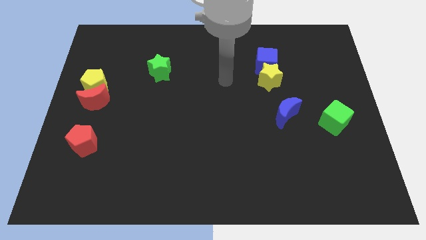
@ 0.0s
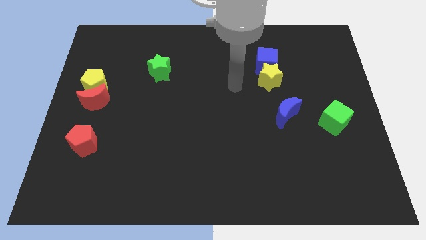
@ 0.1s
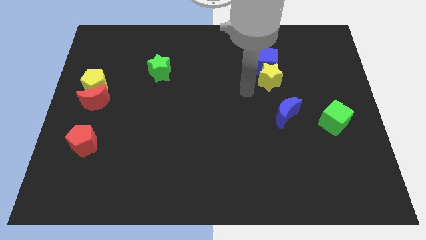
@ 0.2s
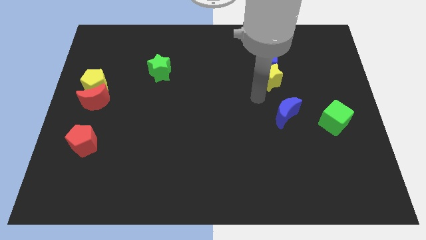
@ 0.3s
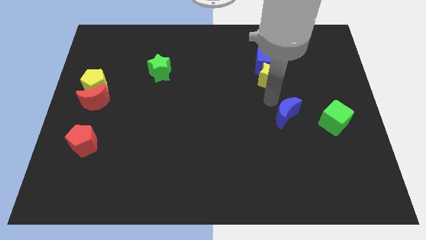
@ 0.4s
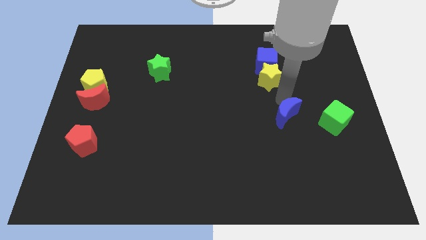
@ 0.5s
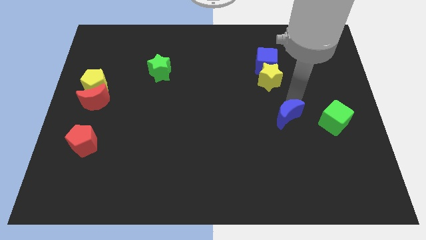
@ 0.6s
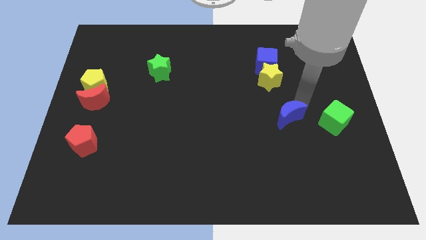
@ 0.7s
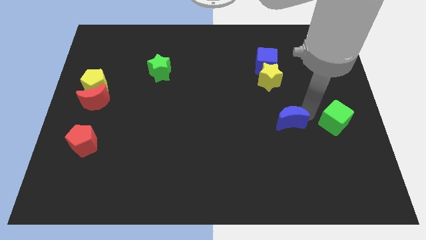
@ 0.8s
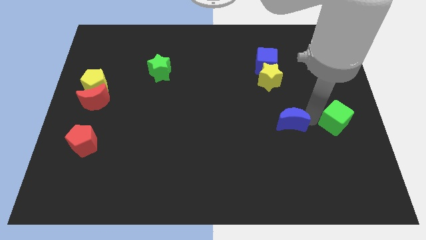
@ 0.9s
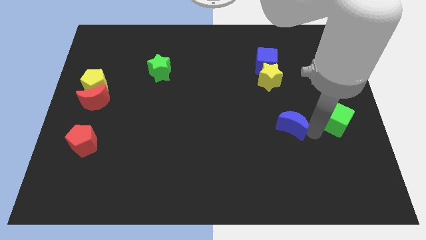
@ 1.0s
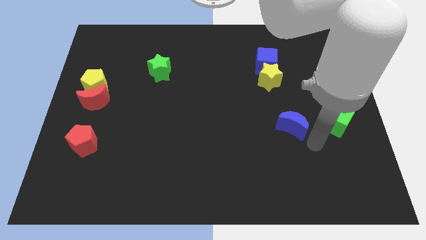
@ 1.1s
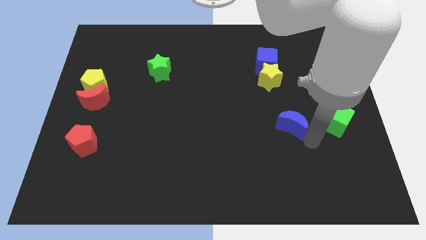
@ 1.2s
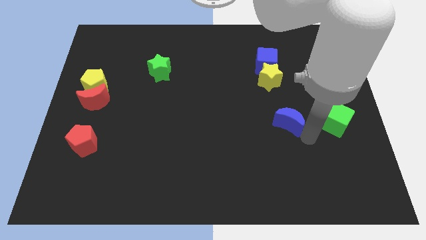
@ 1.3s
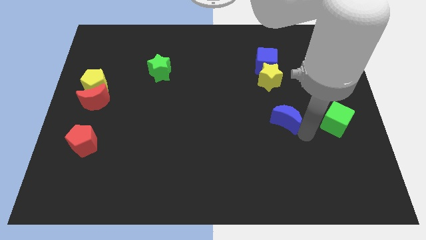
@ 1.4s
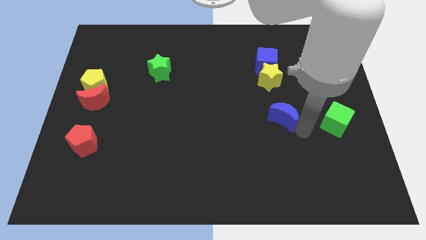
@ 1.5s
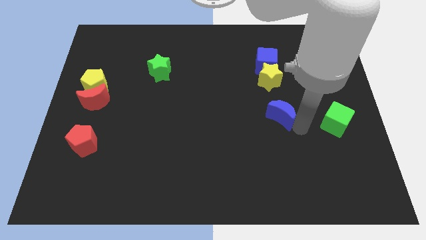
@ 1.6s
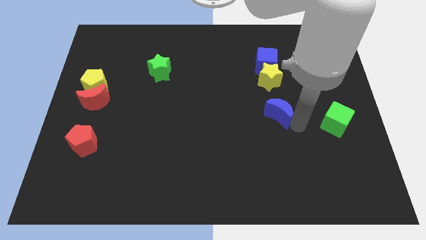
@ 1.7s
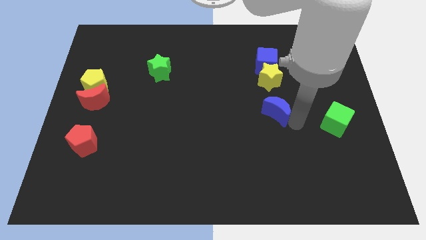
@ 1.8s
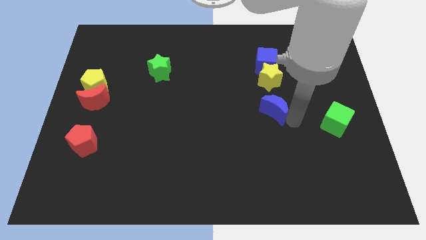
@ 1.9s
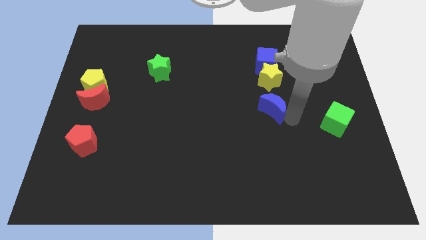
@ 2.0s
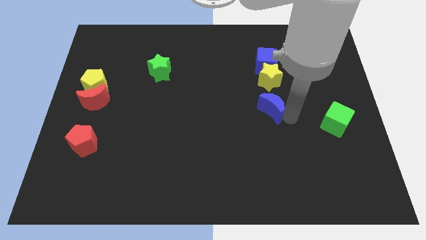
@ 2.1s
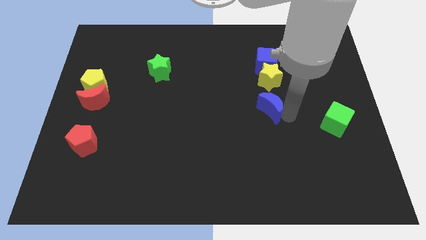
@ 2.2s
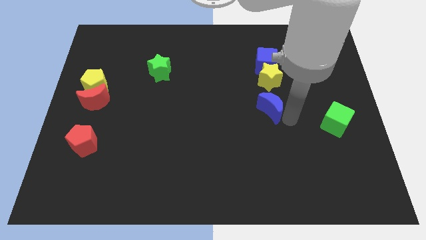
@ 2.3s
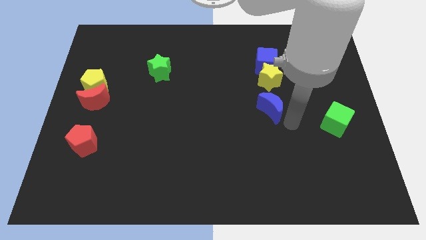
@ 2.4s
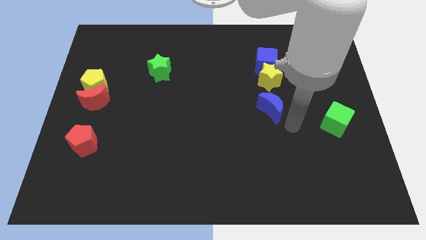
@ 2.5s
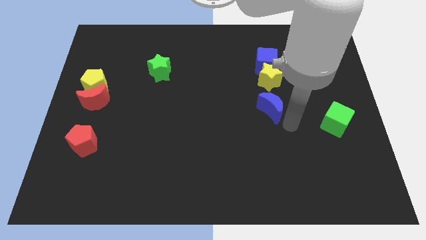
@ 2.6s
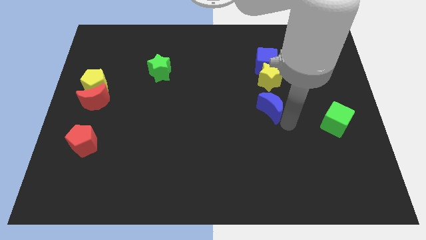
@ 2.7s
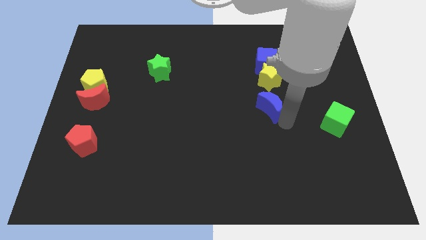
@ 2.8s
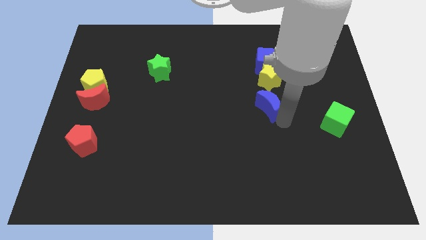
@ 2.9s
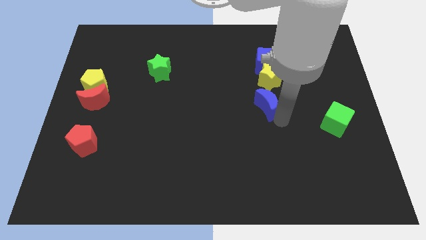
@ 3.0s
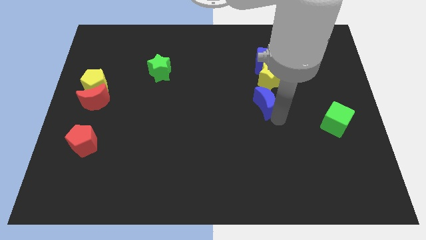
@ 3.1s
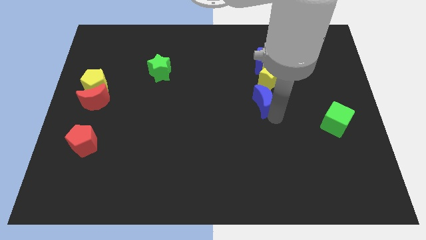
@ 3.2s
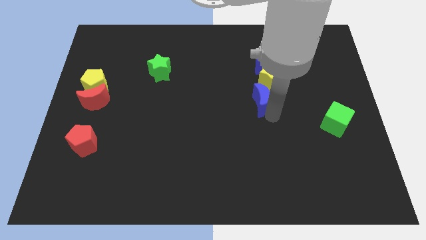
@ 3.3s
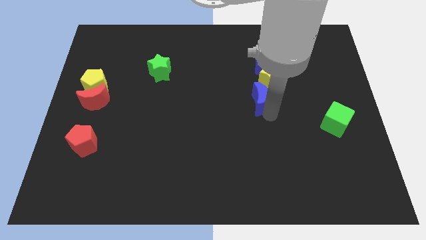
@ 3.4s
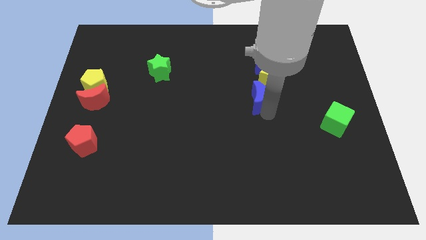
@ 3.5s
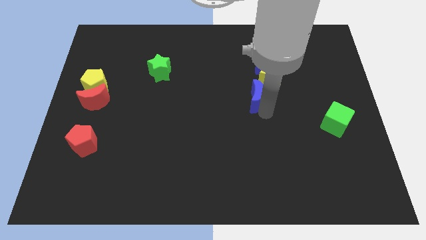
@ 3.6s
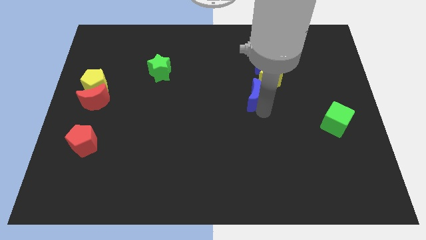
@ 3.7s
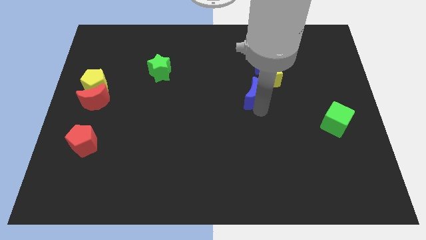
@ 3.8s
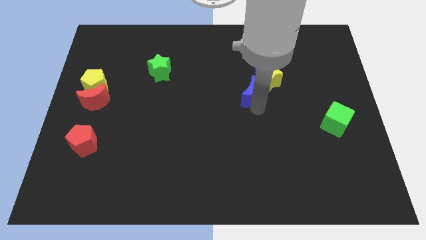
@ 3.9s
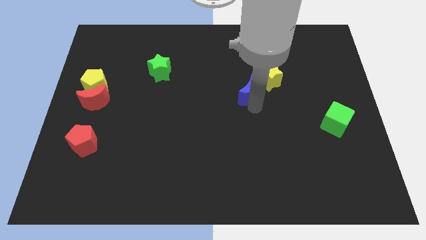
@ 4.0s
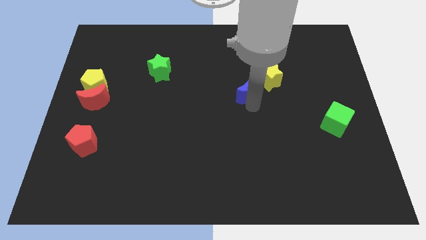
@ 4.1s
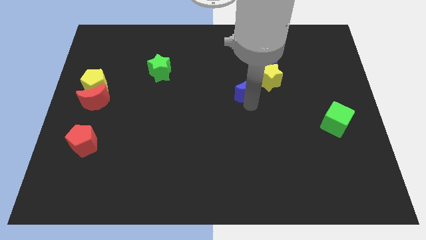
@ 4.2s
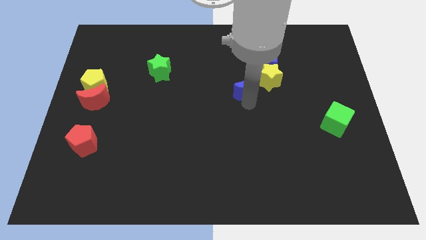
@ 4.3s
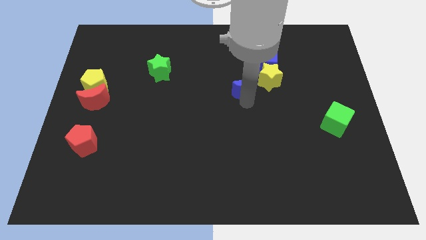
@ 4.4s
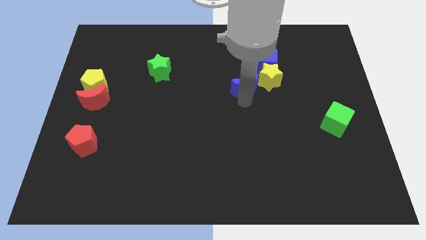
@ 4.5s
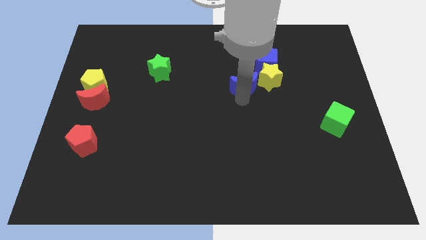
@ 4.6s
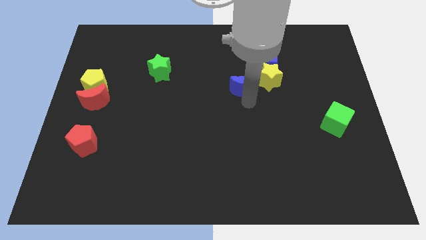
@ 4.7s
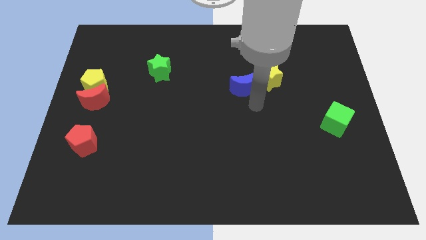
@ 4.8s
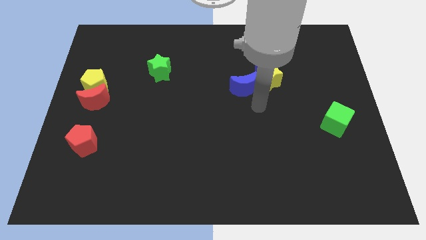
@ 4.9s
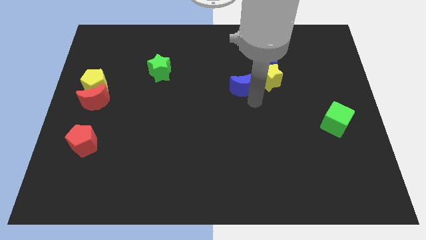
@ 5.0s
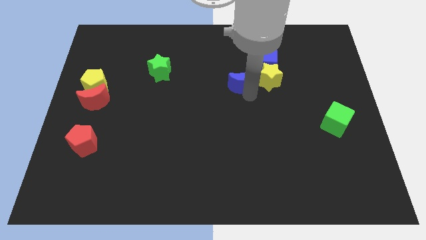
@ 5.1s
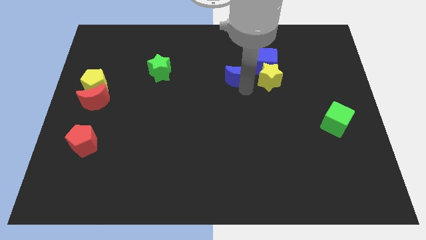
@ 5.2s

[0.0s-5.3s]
put the blue moon to the left of the blue cube

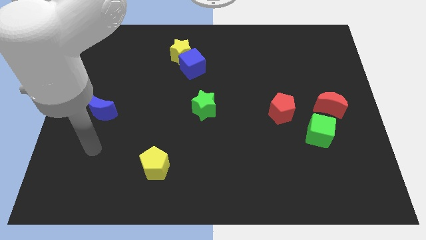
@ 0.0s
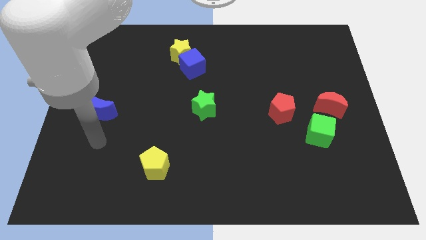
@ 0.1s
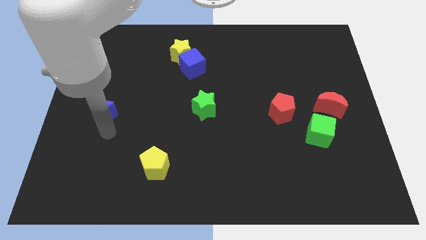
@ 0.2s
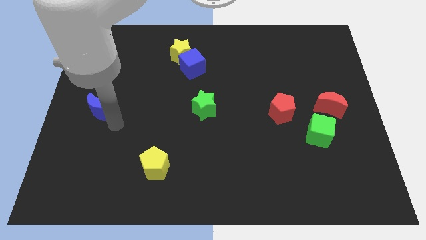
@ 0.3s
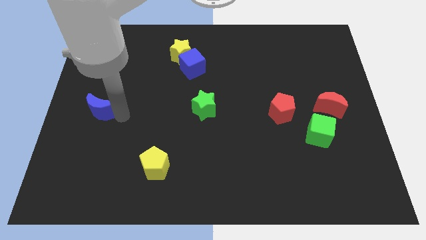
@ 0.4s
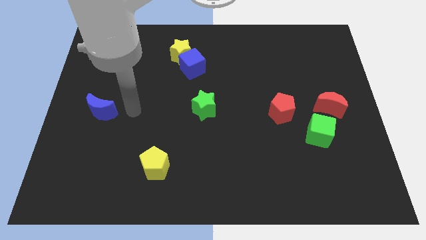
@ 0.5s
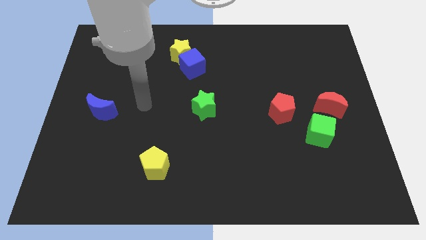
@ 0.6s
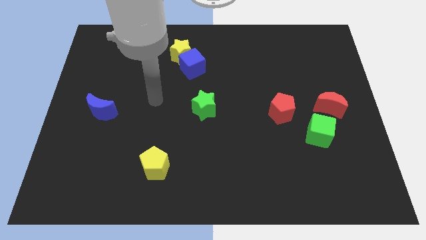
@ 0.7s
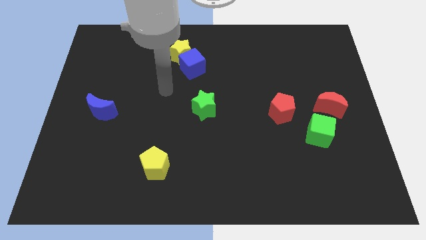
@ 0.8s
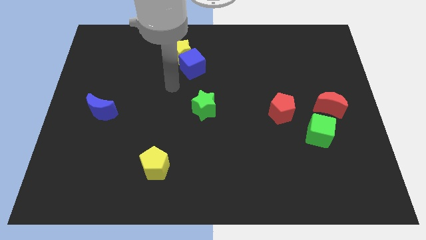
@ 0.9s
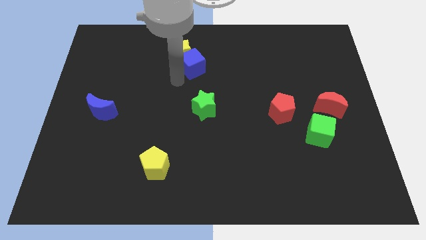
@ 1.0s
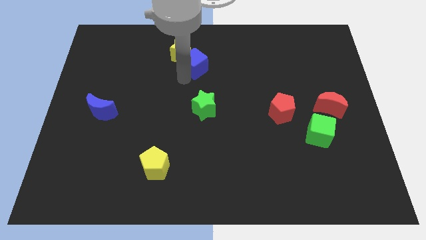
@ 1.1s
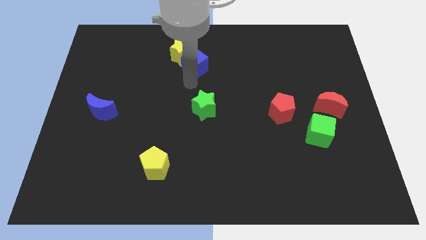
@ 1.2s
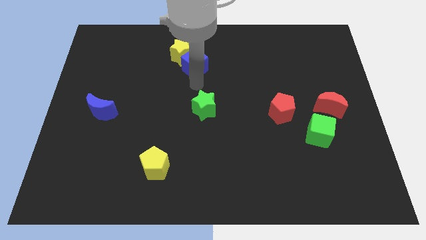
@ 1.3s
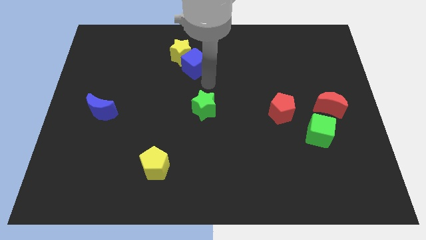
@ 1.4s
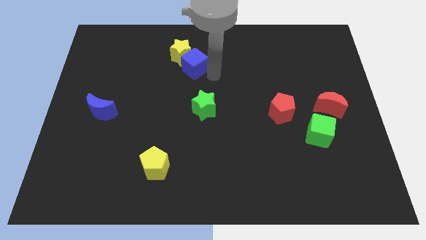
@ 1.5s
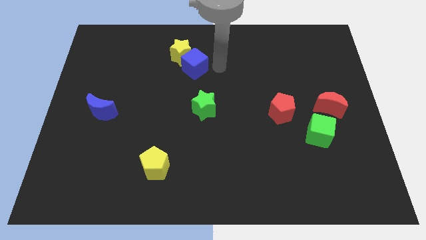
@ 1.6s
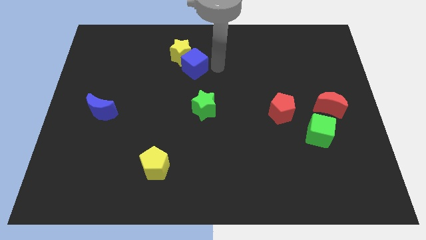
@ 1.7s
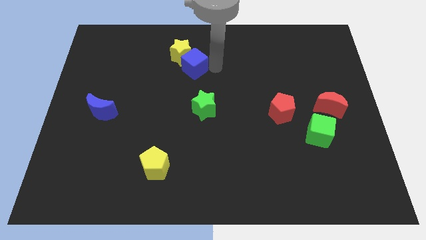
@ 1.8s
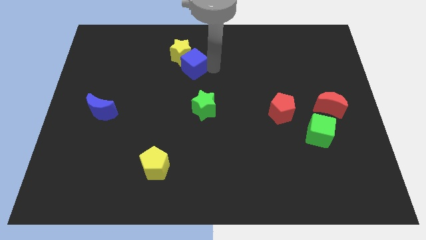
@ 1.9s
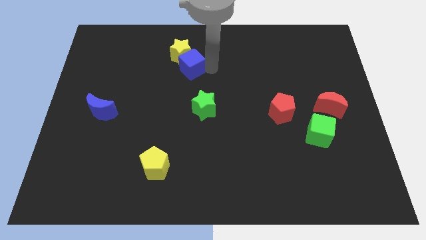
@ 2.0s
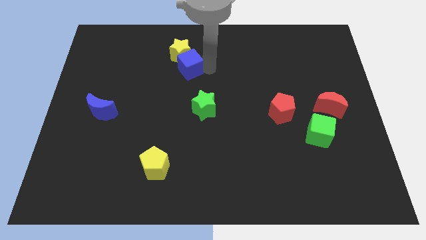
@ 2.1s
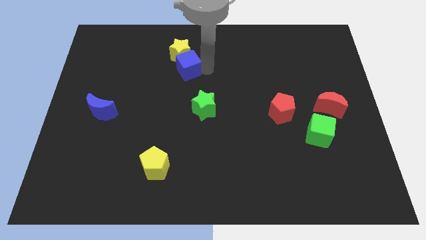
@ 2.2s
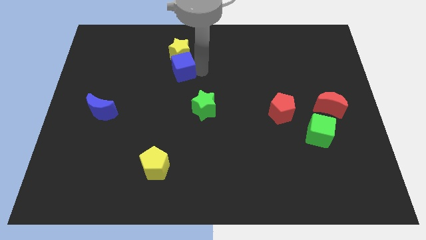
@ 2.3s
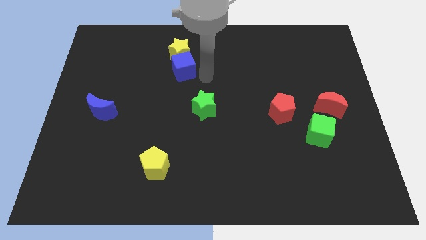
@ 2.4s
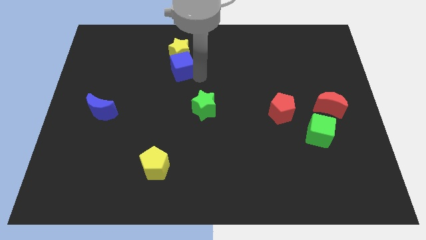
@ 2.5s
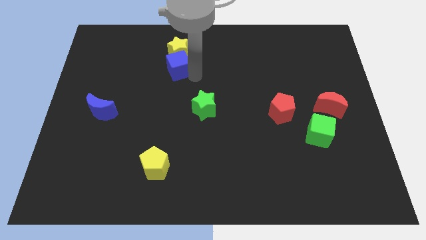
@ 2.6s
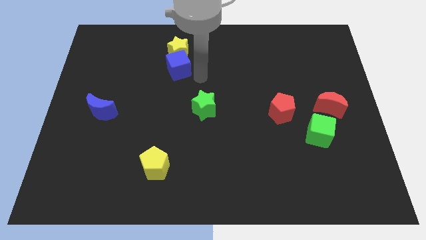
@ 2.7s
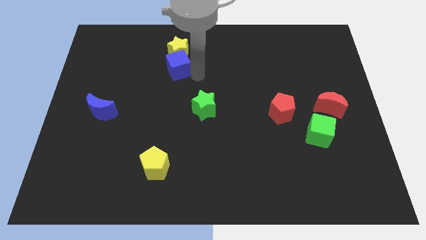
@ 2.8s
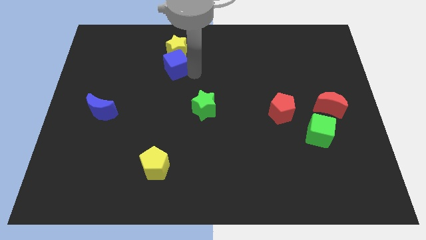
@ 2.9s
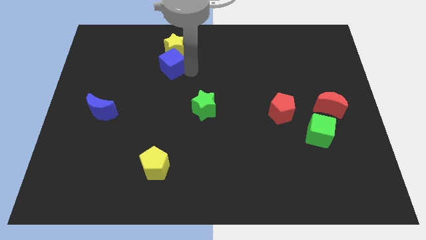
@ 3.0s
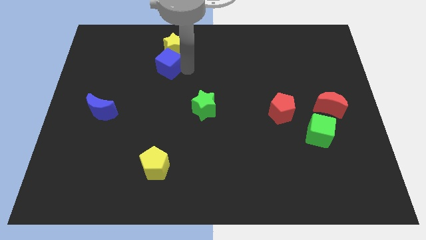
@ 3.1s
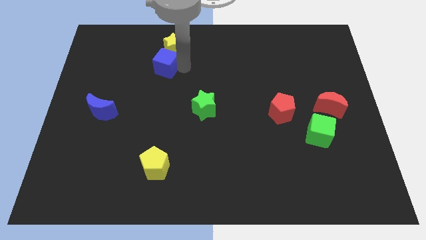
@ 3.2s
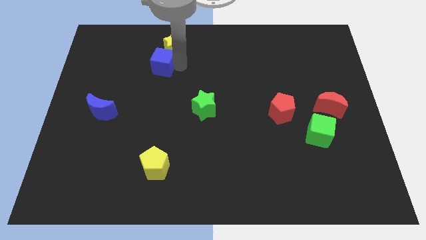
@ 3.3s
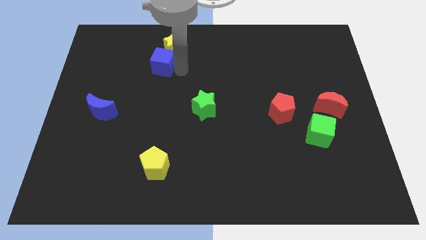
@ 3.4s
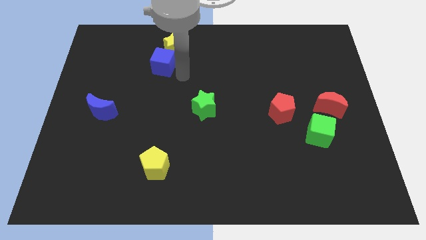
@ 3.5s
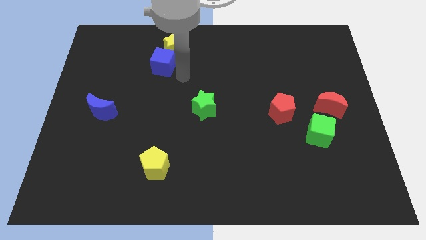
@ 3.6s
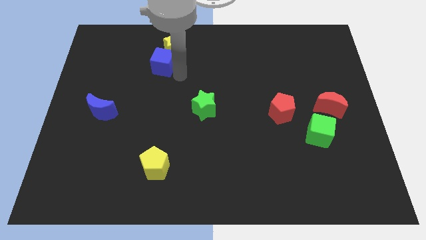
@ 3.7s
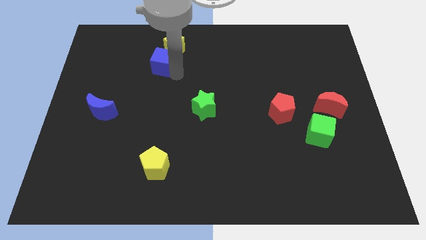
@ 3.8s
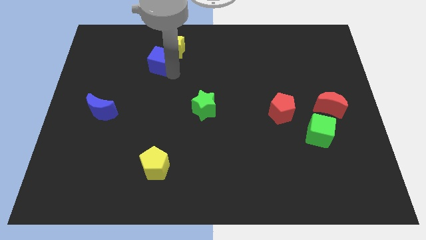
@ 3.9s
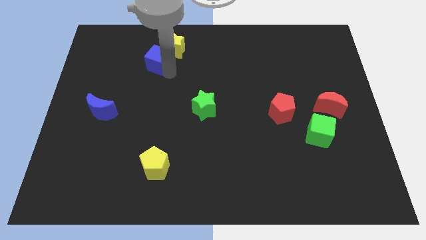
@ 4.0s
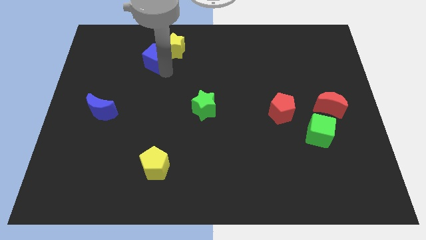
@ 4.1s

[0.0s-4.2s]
move the blue cube to the left side of the yellow star
